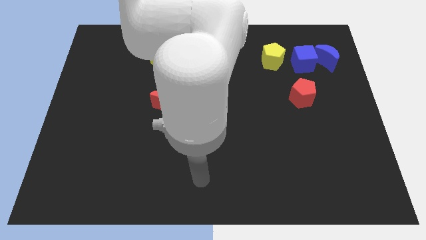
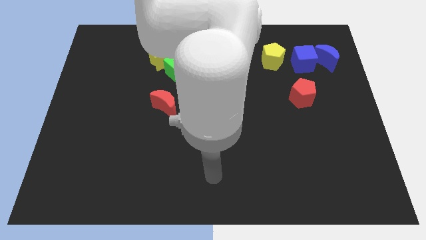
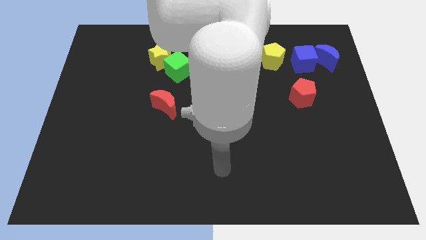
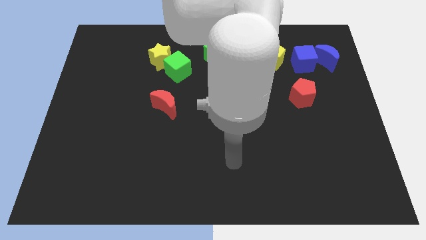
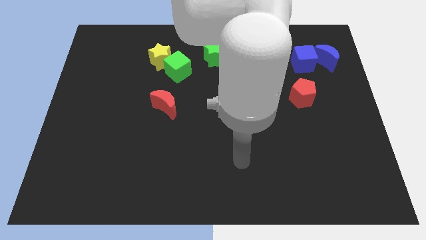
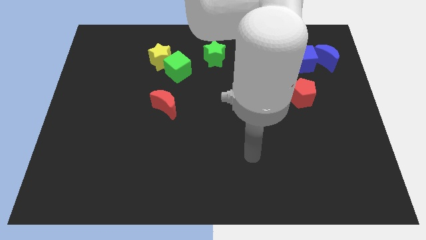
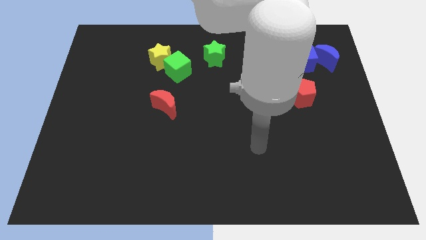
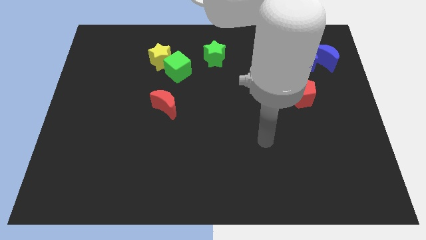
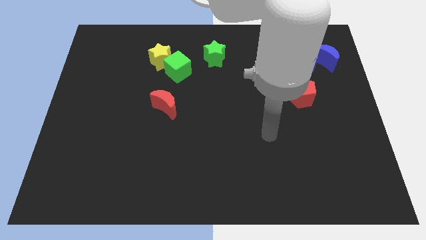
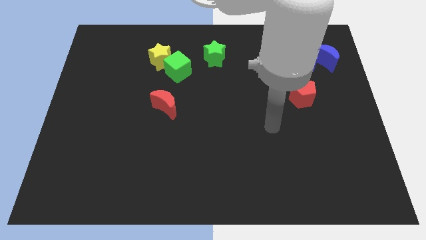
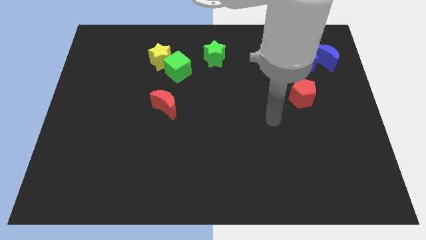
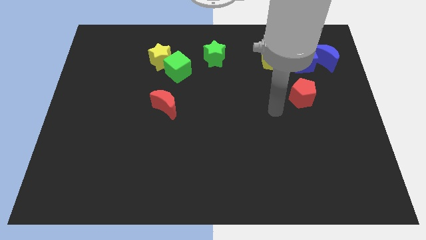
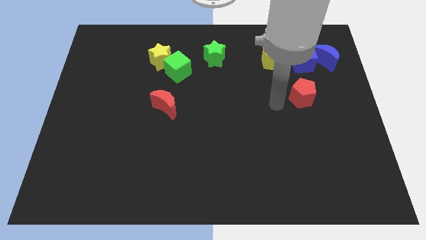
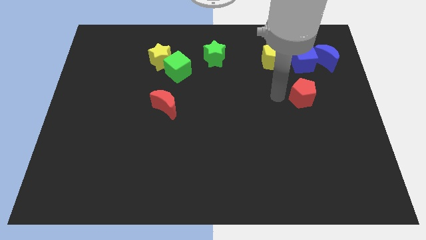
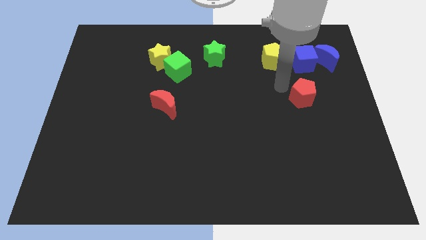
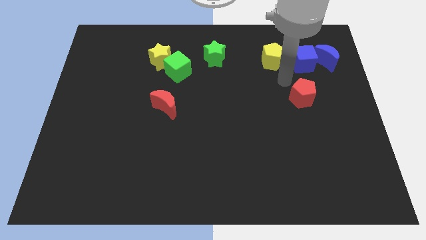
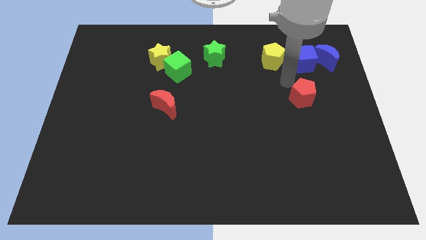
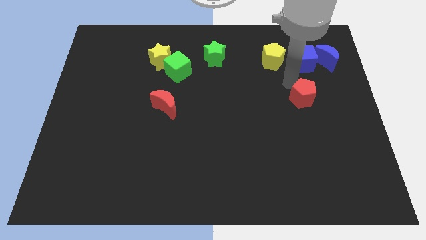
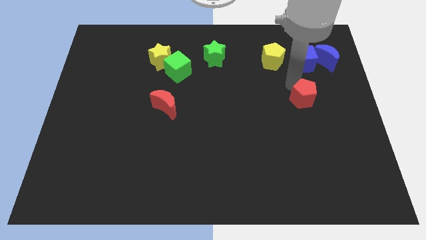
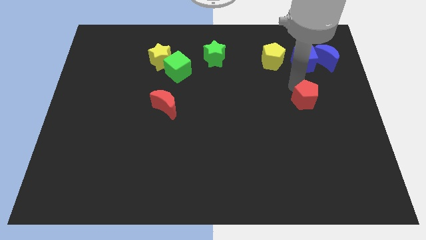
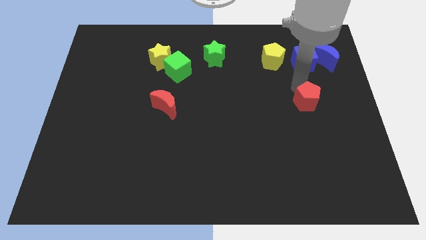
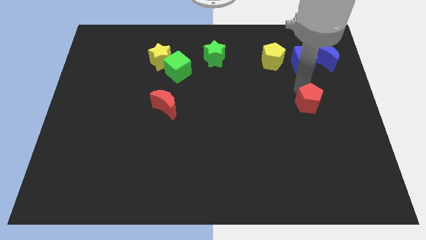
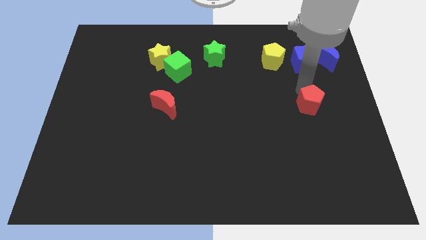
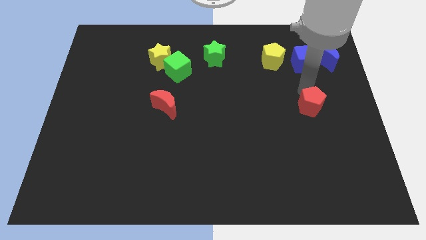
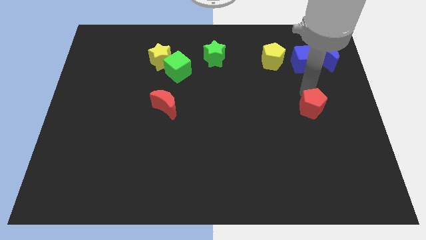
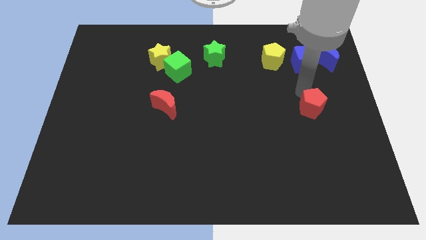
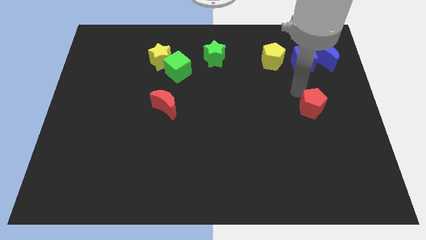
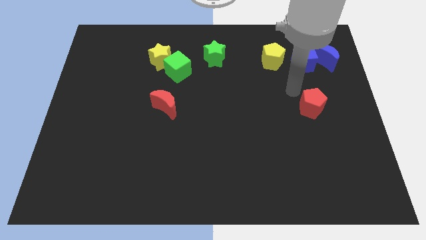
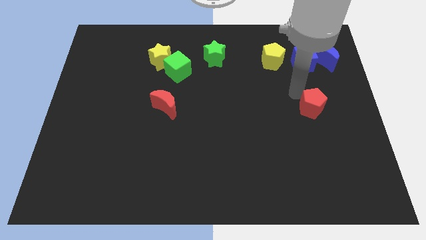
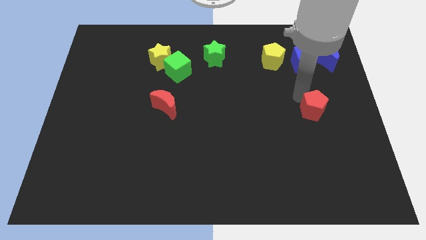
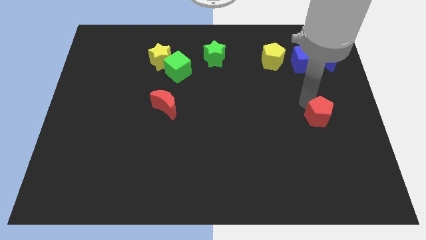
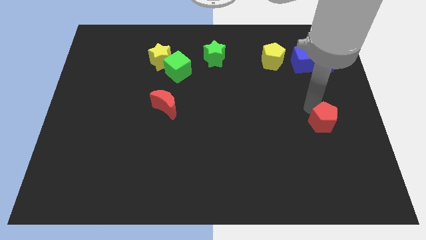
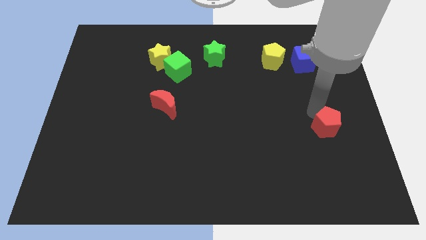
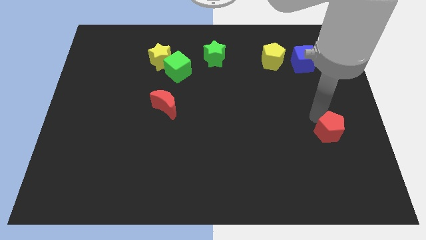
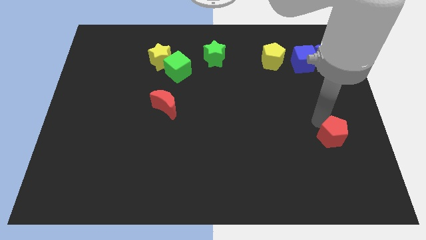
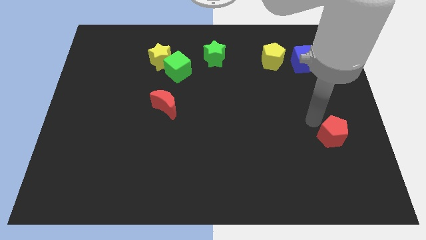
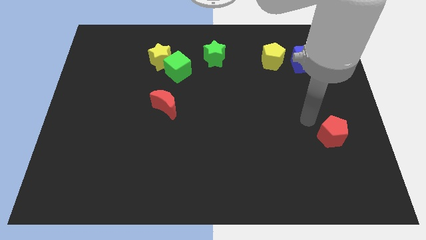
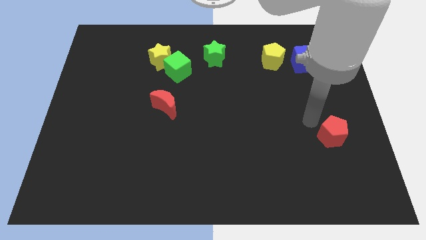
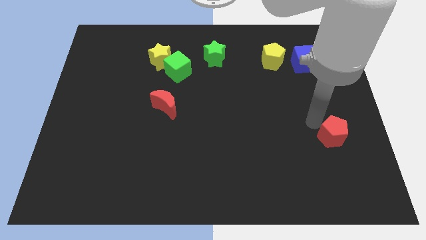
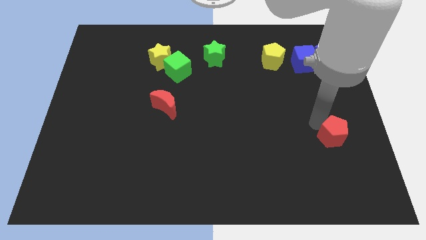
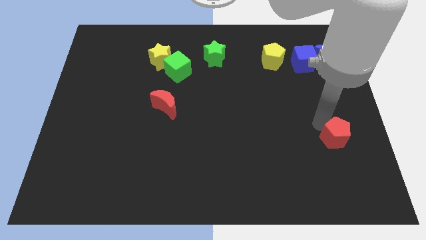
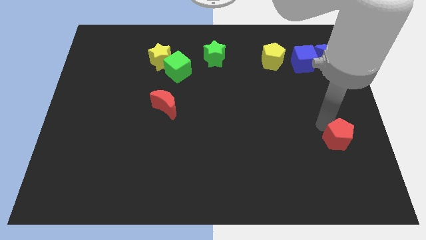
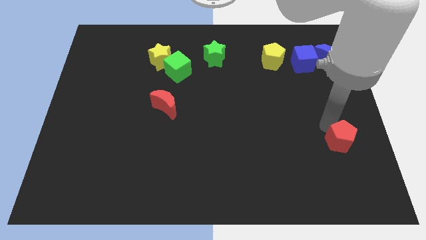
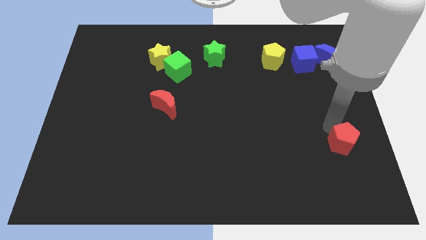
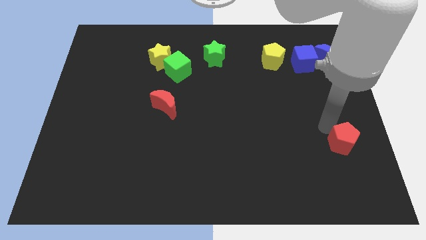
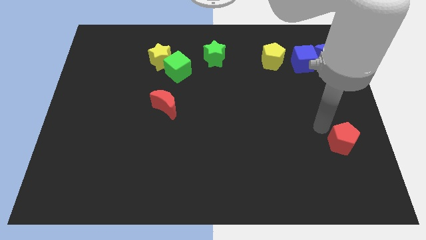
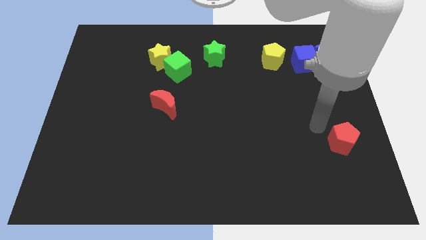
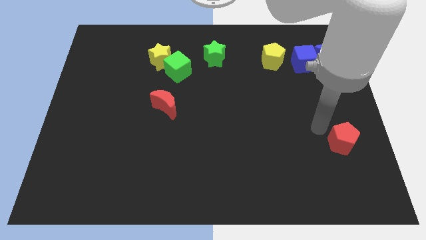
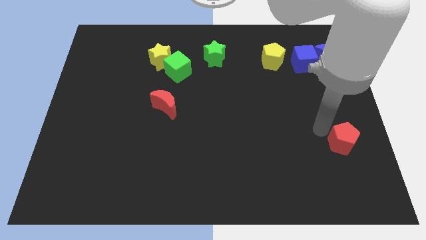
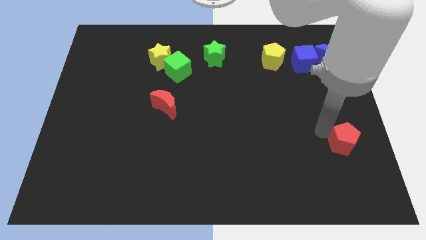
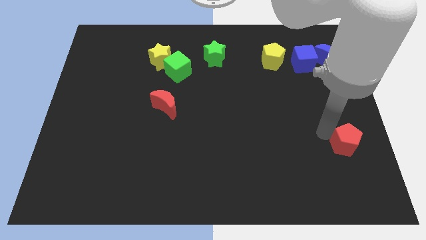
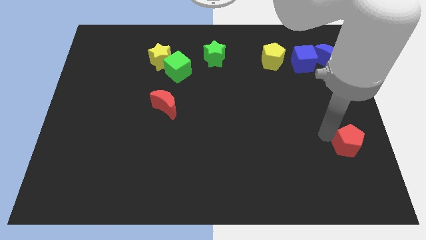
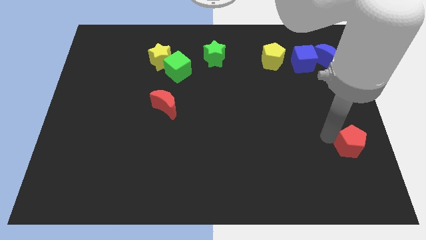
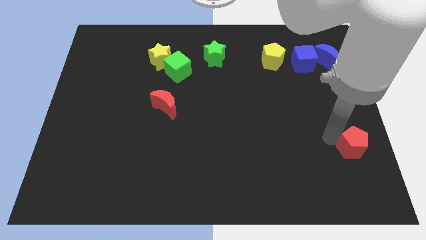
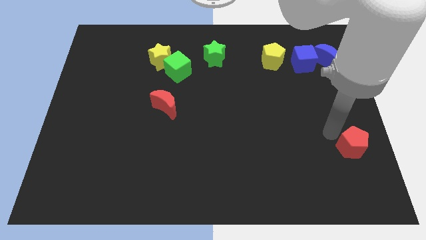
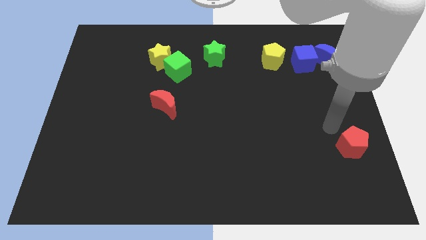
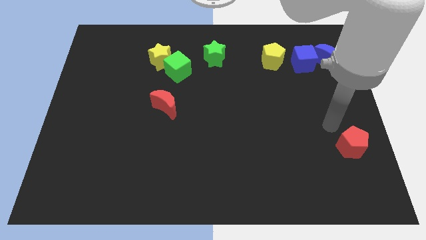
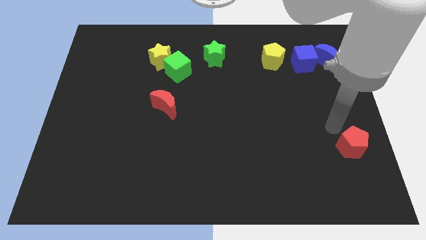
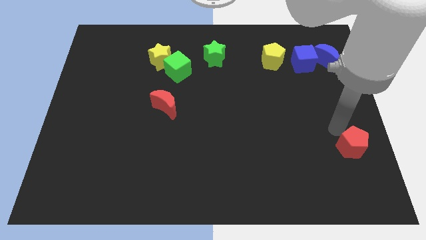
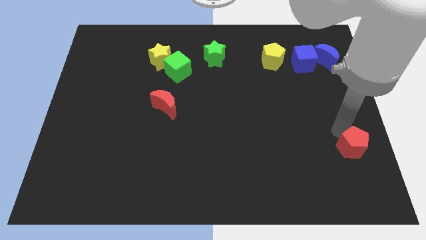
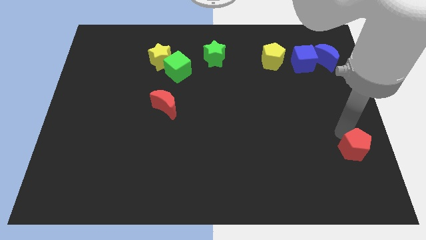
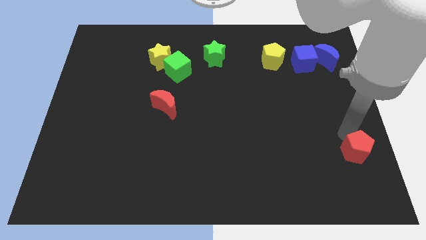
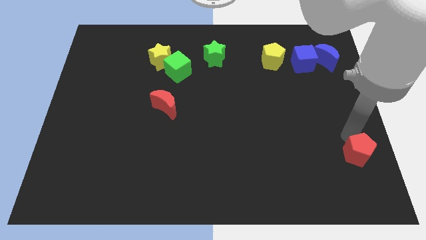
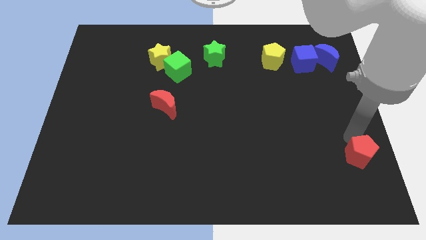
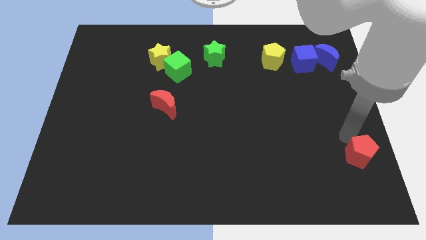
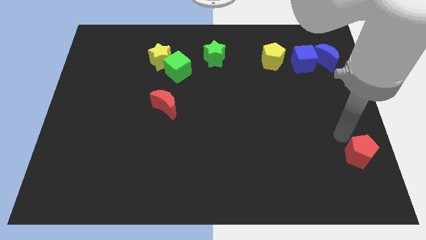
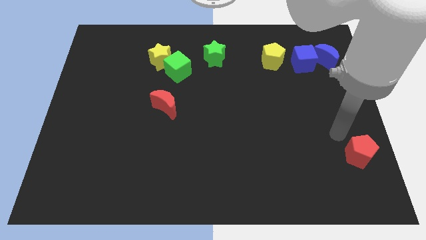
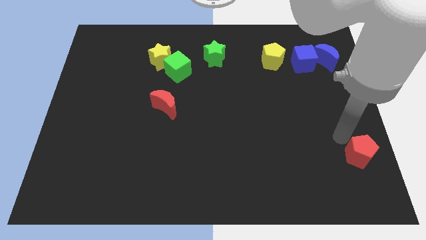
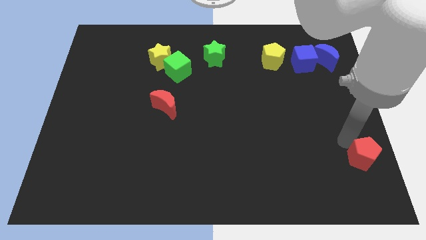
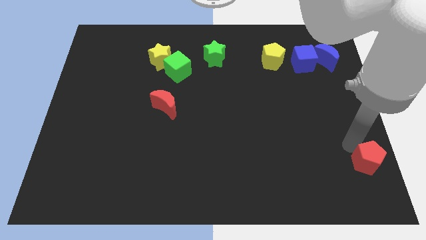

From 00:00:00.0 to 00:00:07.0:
push the red pentagon to the bottom right corner

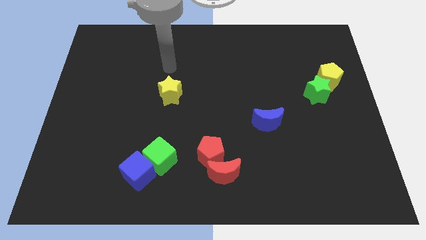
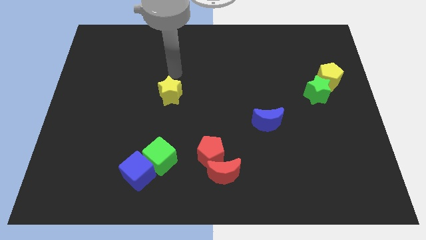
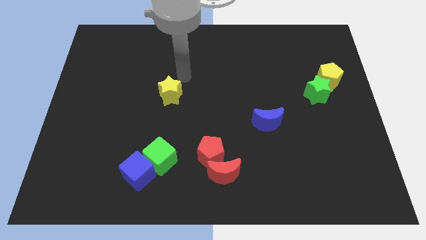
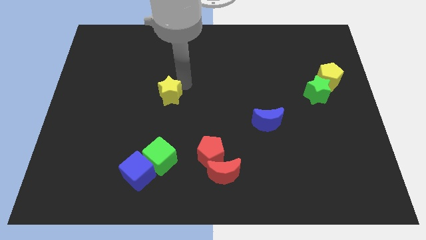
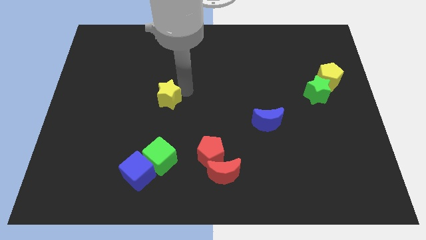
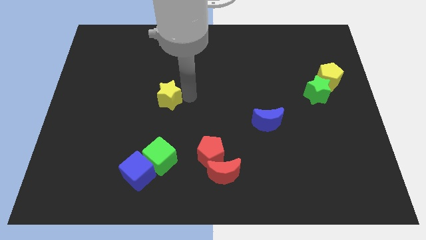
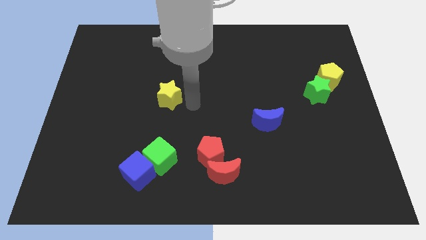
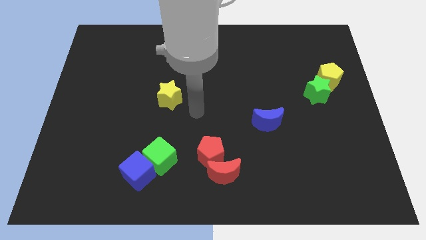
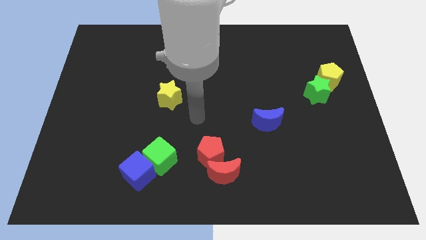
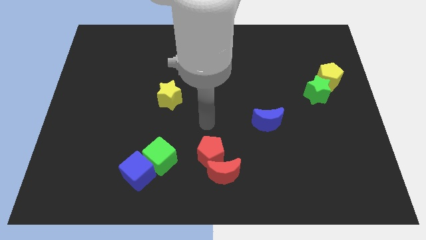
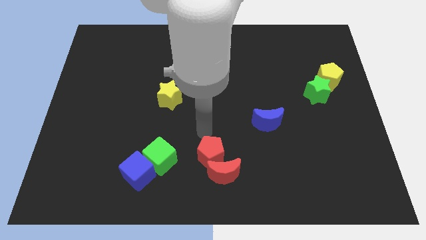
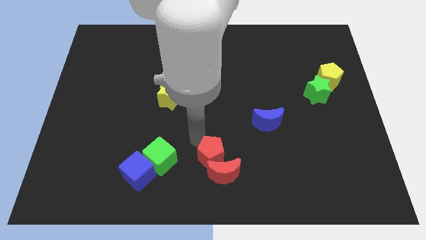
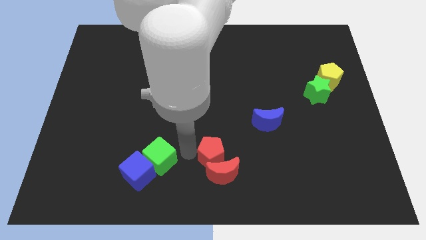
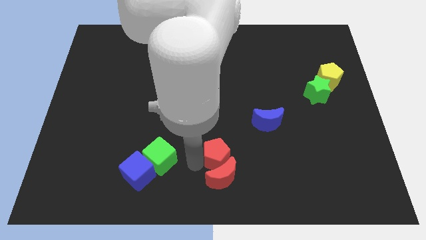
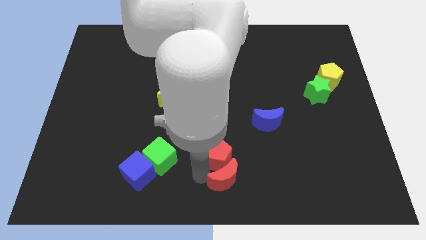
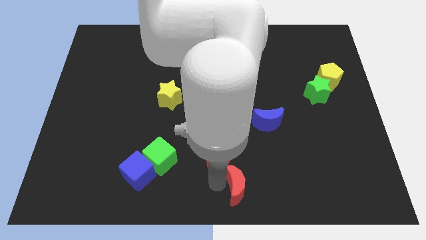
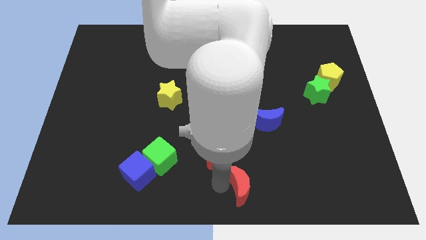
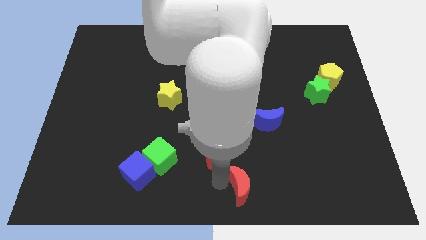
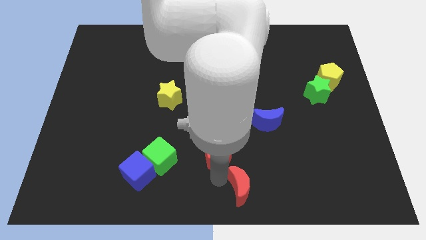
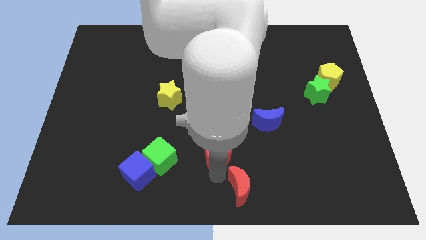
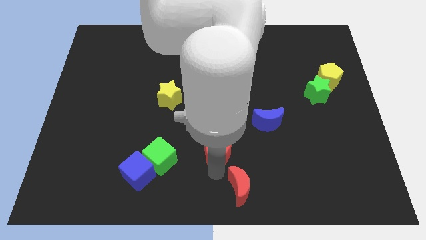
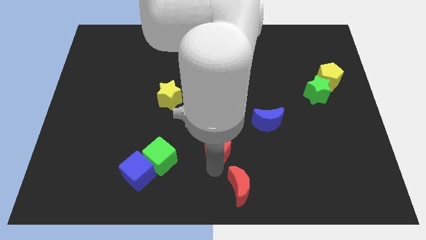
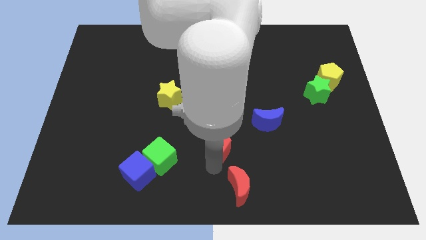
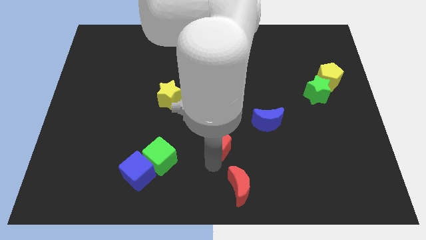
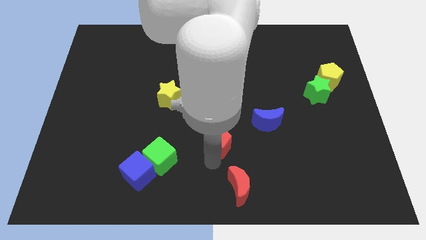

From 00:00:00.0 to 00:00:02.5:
put the red pentagon to the middle of the board
